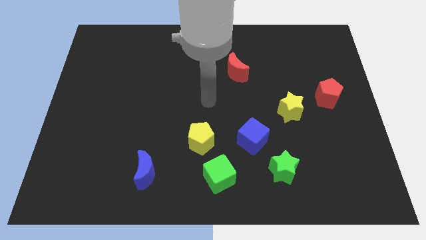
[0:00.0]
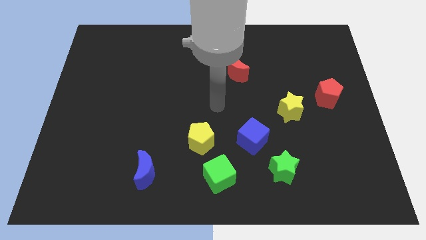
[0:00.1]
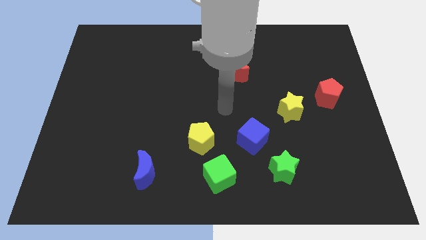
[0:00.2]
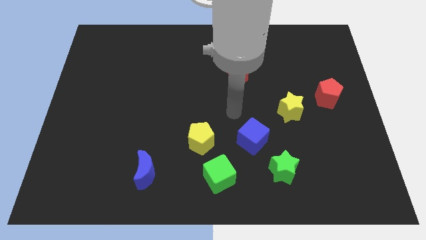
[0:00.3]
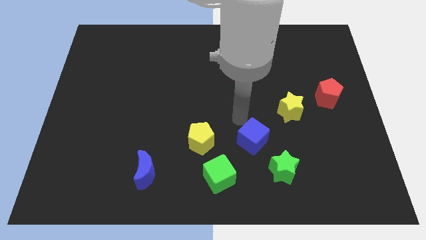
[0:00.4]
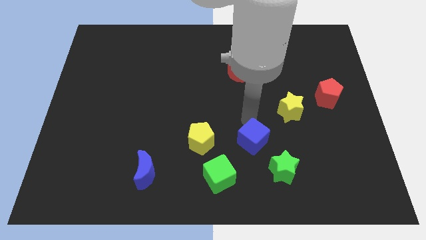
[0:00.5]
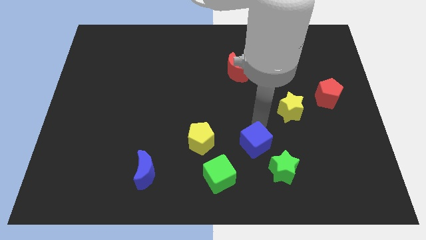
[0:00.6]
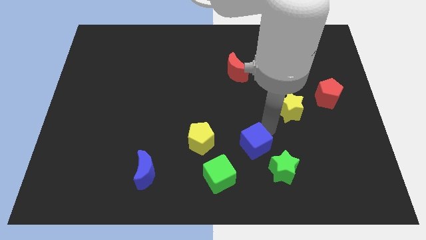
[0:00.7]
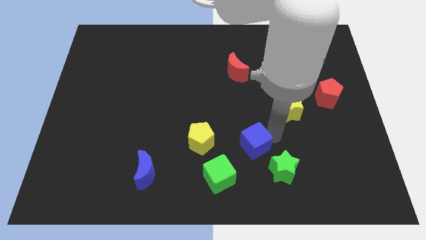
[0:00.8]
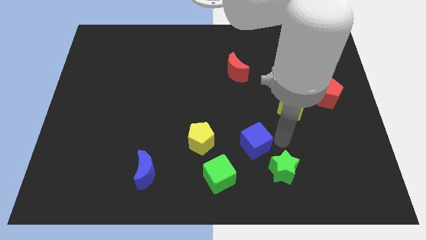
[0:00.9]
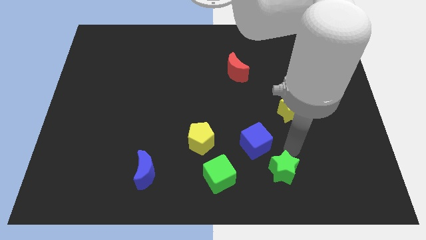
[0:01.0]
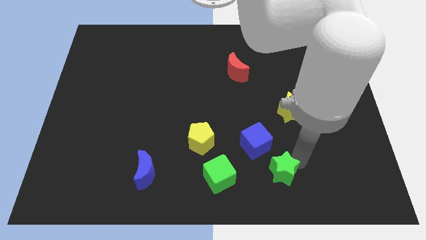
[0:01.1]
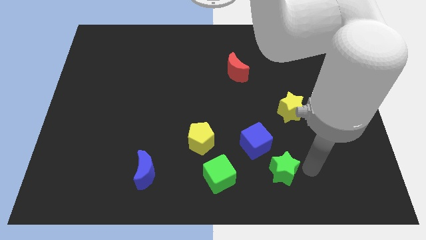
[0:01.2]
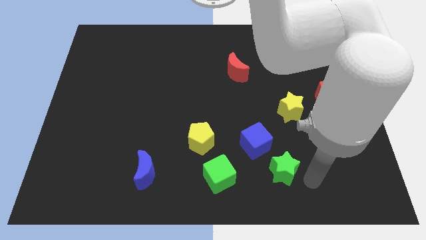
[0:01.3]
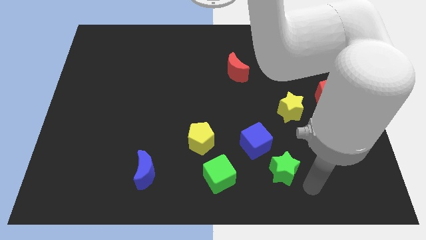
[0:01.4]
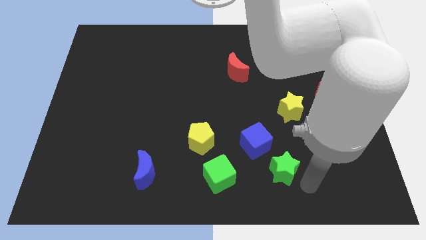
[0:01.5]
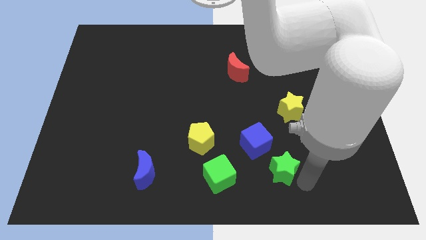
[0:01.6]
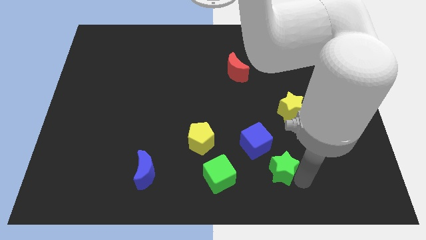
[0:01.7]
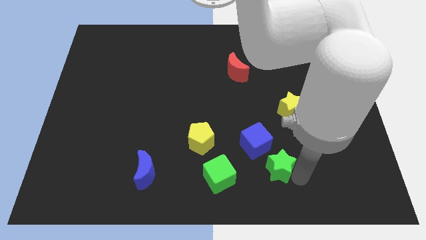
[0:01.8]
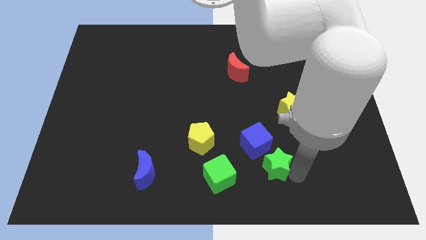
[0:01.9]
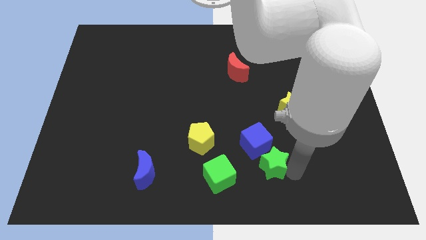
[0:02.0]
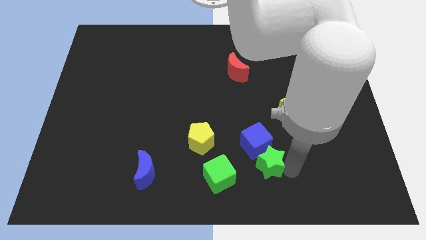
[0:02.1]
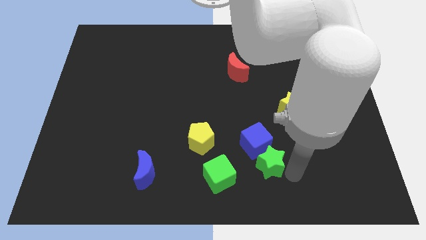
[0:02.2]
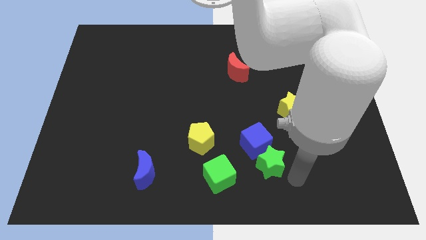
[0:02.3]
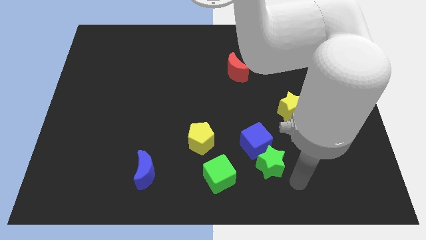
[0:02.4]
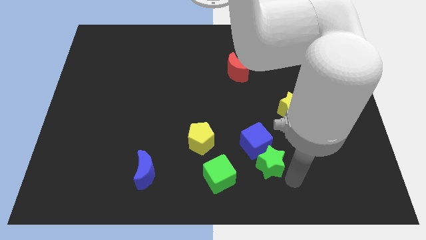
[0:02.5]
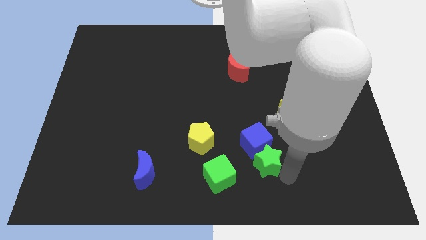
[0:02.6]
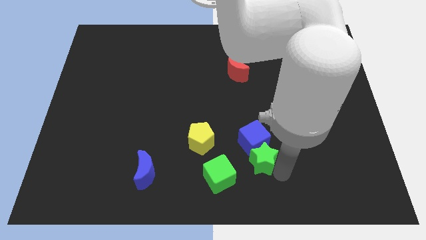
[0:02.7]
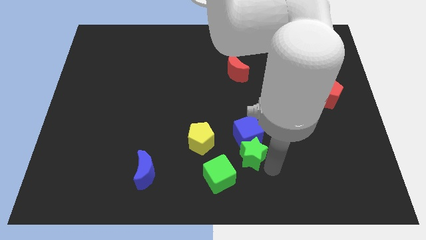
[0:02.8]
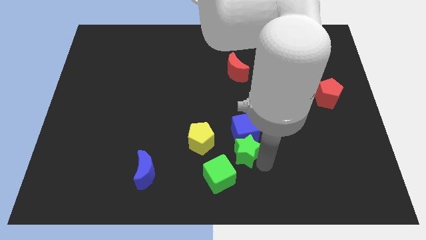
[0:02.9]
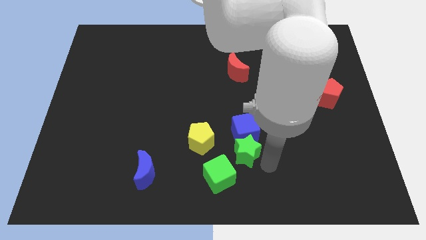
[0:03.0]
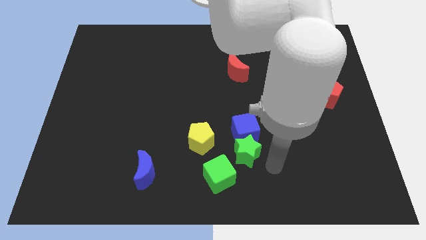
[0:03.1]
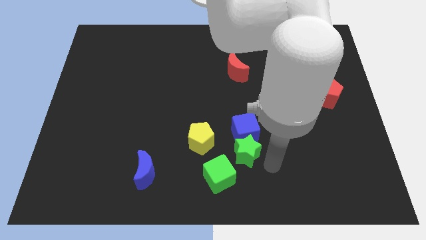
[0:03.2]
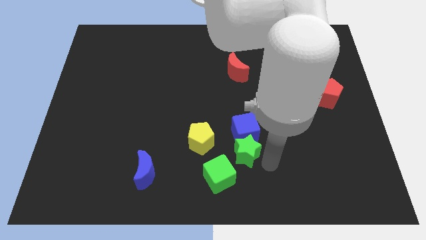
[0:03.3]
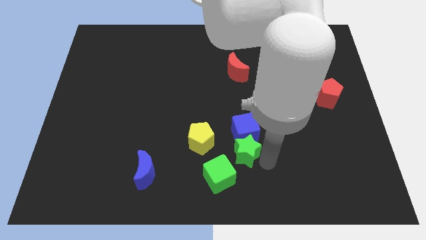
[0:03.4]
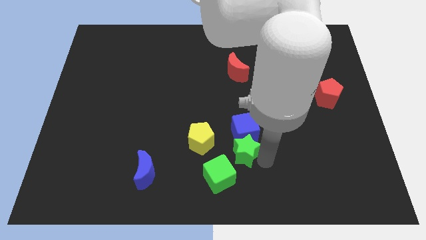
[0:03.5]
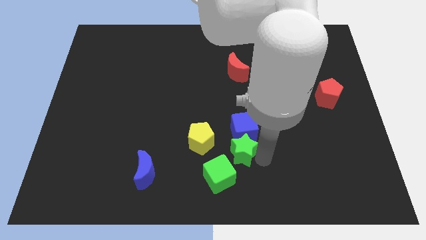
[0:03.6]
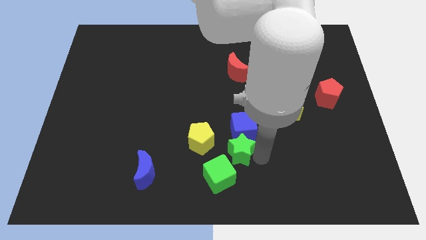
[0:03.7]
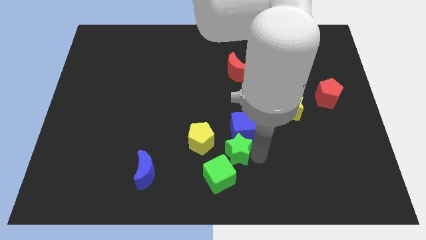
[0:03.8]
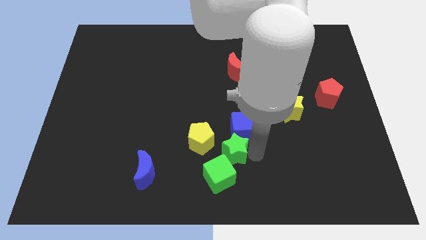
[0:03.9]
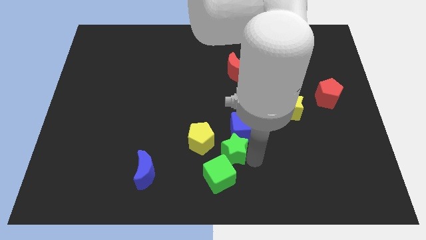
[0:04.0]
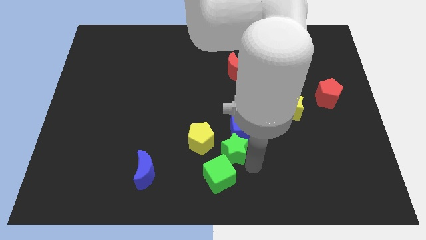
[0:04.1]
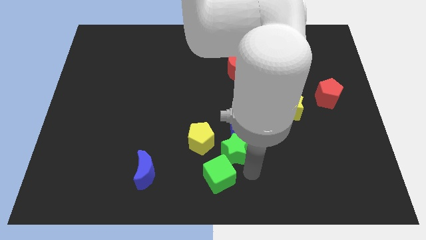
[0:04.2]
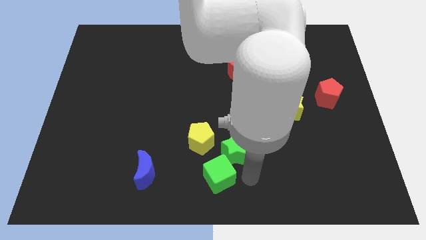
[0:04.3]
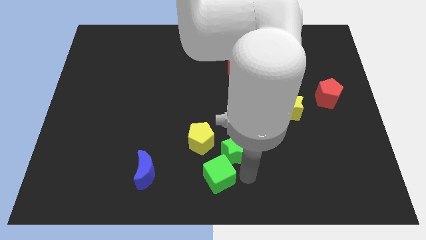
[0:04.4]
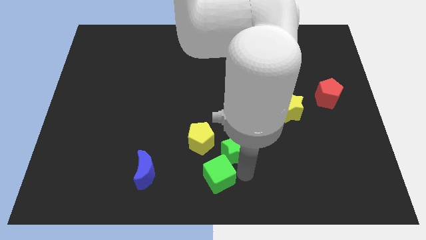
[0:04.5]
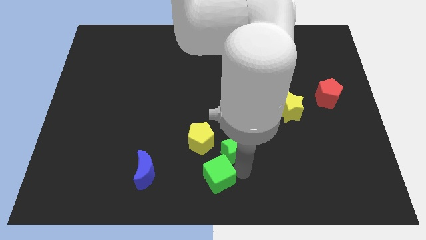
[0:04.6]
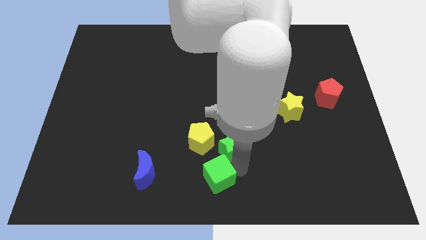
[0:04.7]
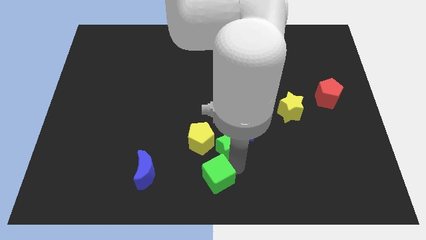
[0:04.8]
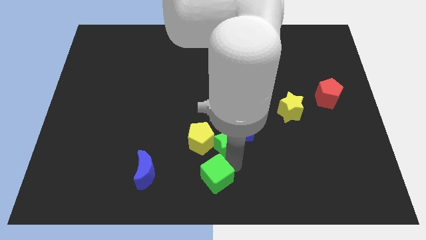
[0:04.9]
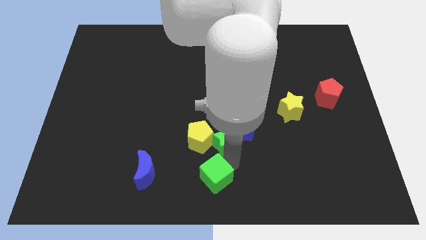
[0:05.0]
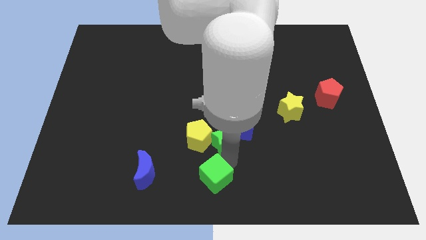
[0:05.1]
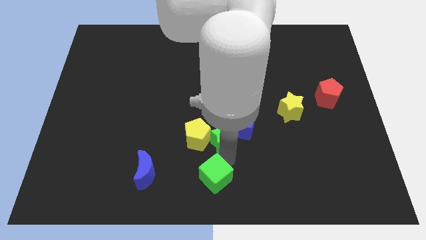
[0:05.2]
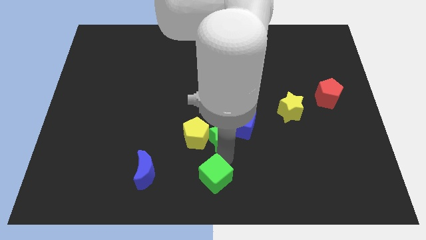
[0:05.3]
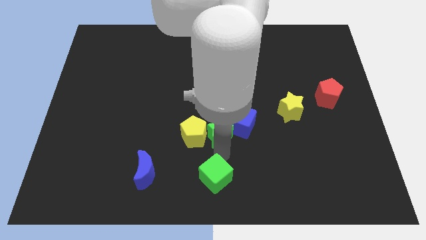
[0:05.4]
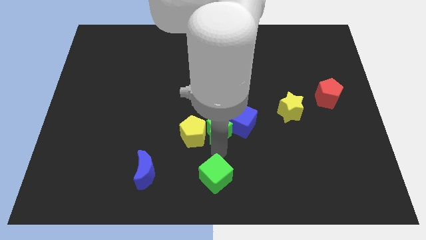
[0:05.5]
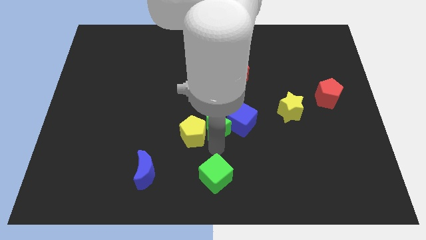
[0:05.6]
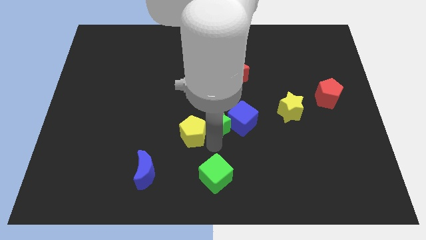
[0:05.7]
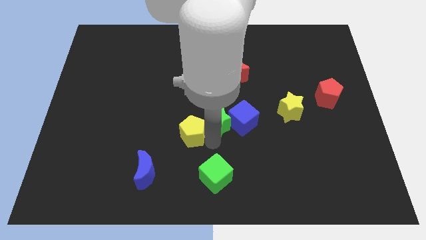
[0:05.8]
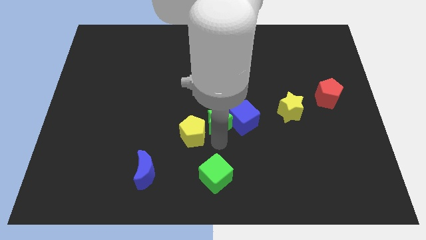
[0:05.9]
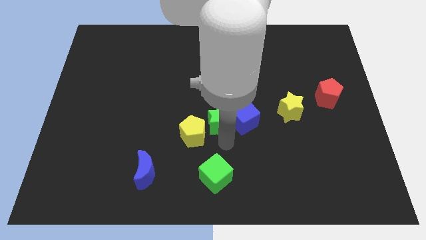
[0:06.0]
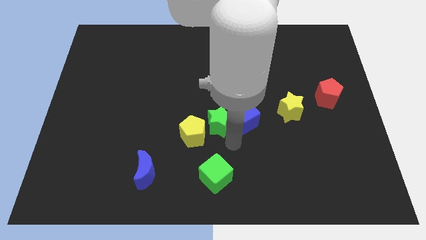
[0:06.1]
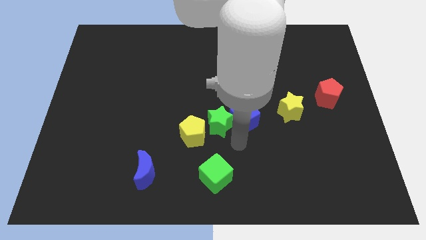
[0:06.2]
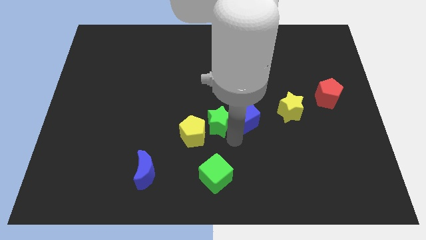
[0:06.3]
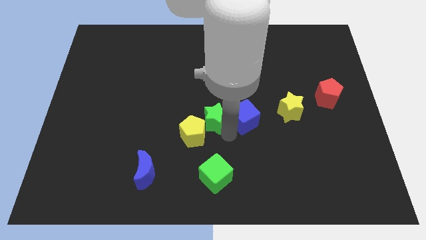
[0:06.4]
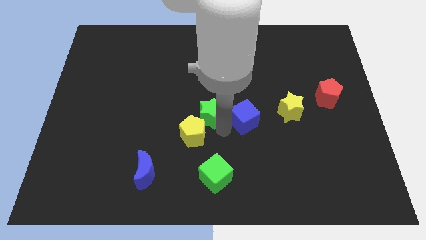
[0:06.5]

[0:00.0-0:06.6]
slide the green star upwards and to the left

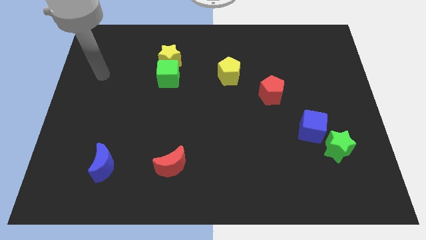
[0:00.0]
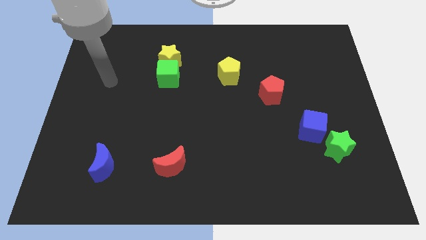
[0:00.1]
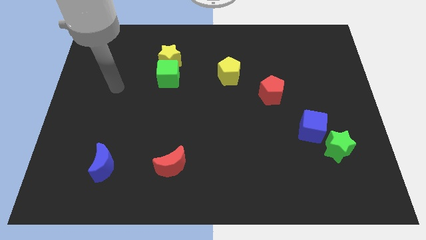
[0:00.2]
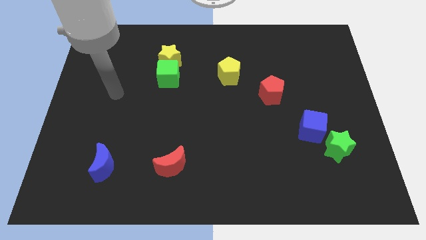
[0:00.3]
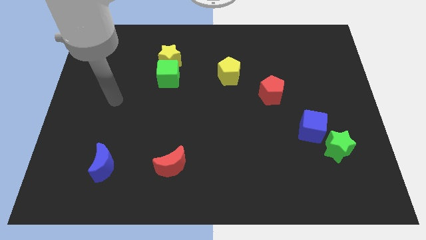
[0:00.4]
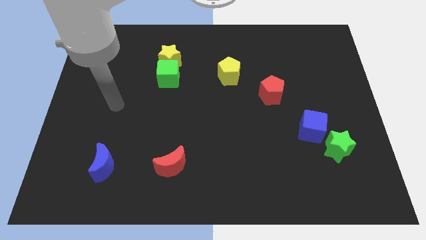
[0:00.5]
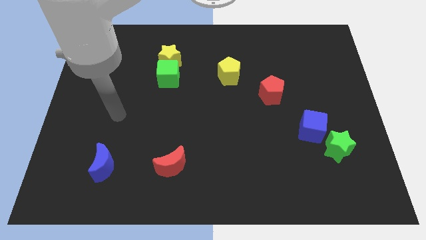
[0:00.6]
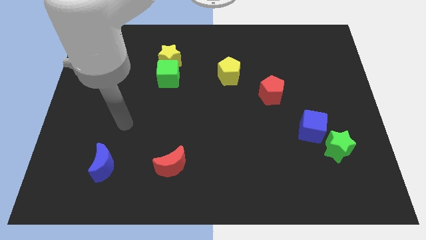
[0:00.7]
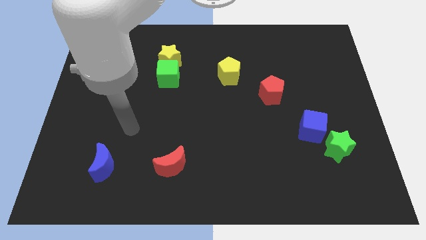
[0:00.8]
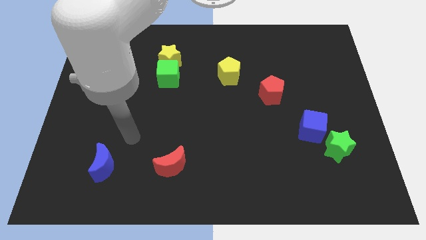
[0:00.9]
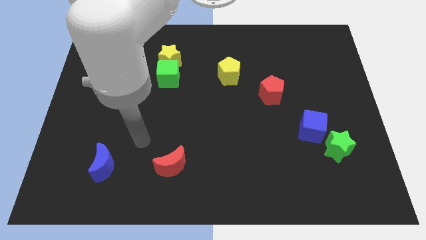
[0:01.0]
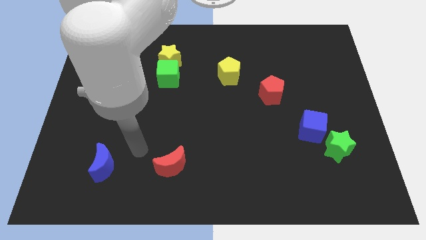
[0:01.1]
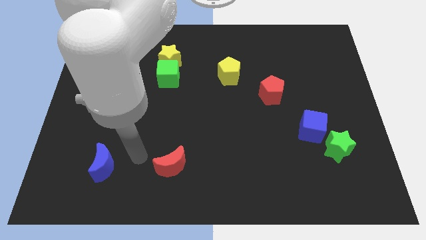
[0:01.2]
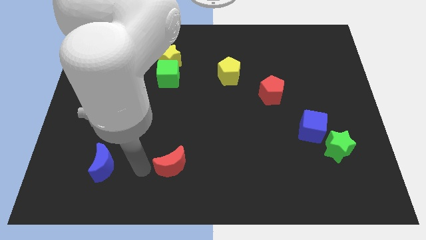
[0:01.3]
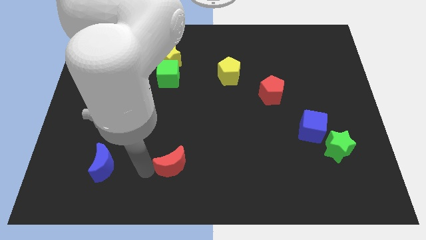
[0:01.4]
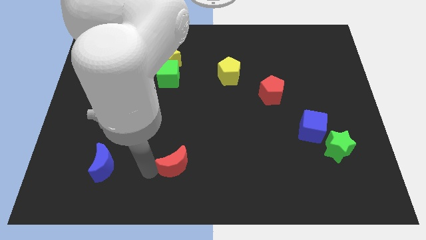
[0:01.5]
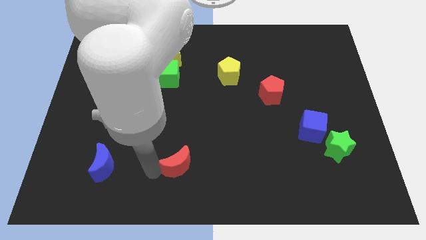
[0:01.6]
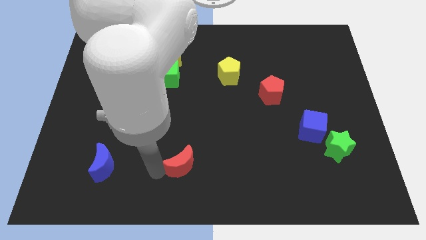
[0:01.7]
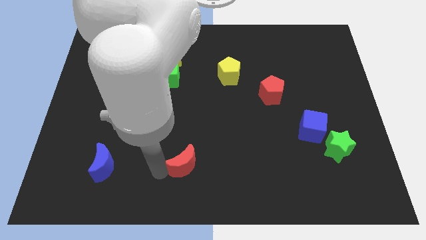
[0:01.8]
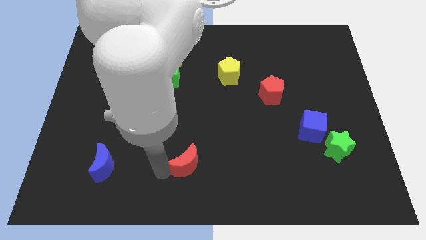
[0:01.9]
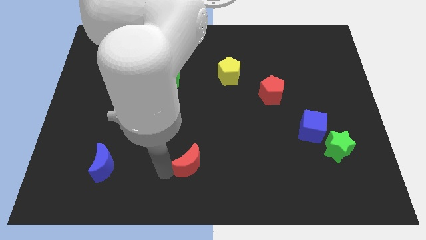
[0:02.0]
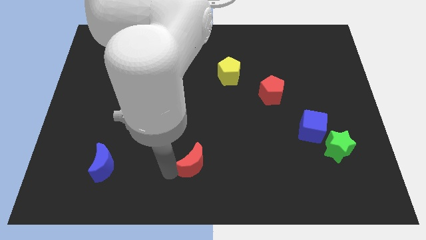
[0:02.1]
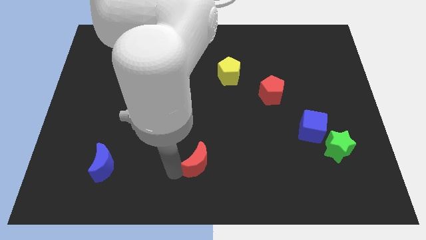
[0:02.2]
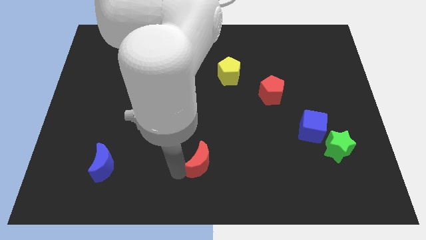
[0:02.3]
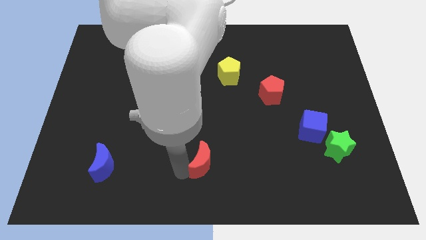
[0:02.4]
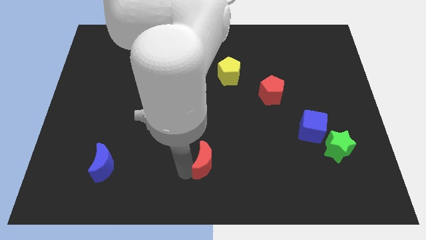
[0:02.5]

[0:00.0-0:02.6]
slide the red moon to the right somewhat
